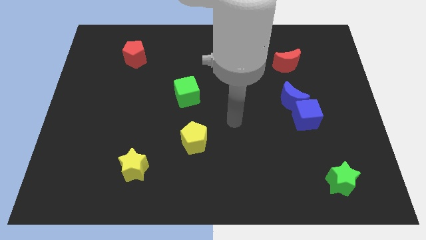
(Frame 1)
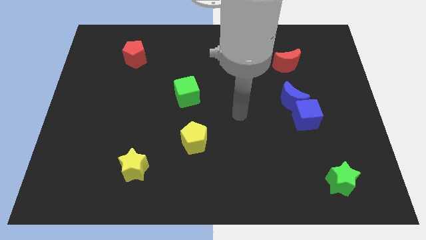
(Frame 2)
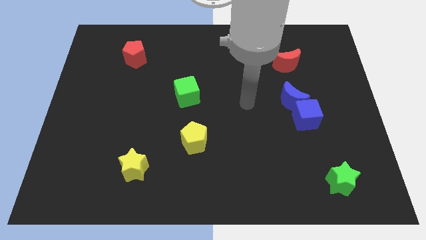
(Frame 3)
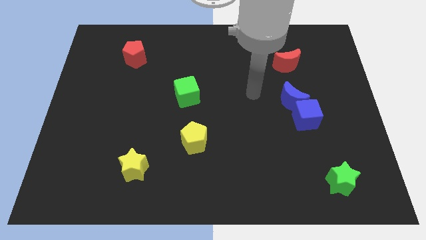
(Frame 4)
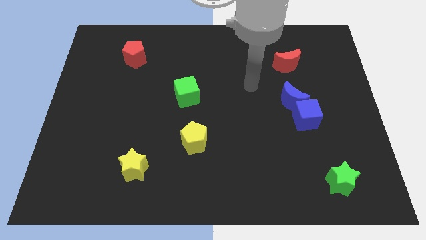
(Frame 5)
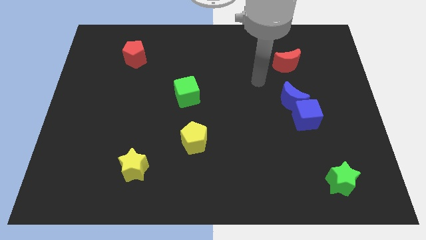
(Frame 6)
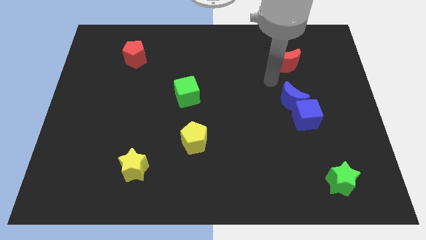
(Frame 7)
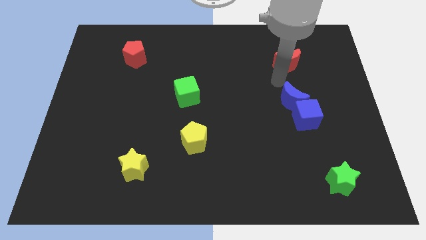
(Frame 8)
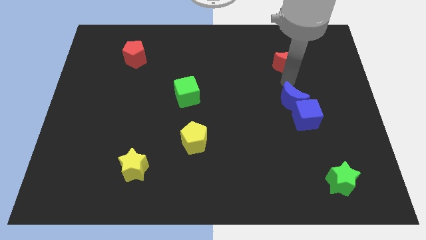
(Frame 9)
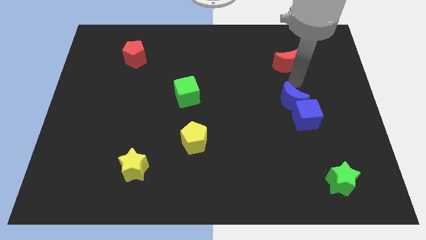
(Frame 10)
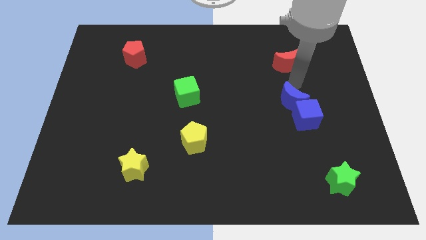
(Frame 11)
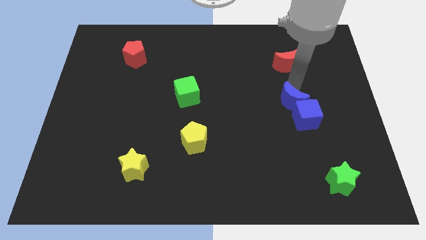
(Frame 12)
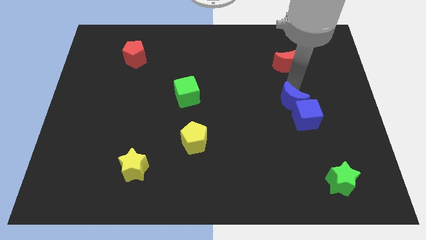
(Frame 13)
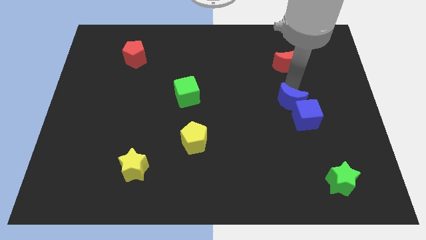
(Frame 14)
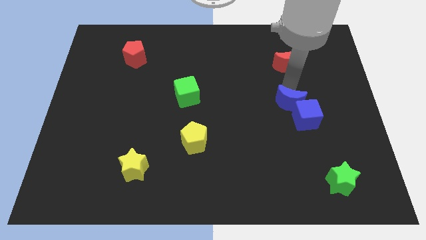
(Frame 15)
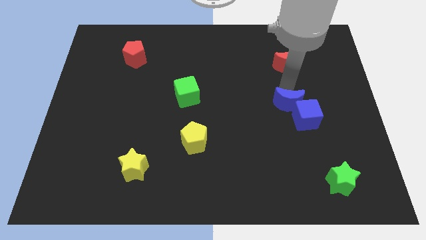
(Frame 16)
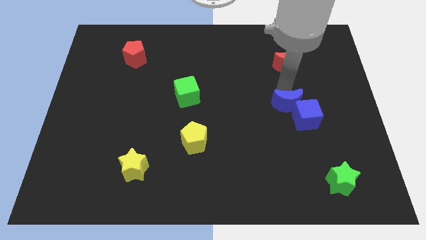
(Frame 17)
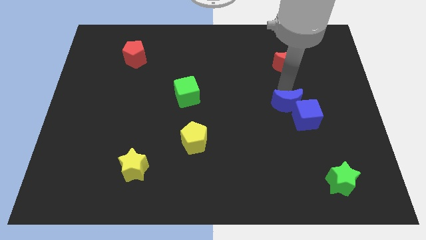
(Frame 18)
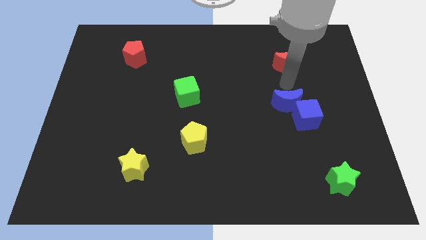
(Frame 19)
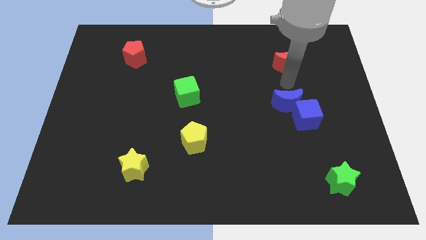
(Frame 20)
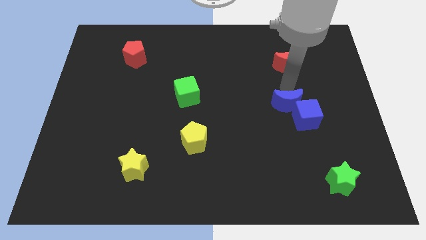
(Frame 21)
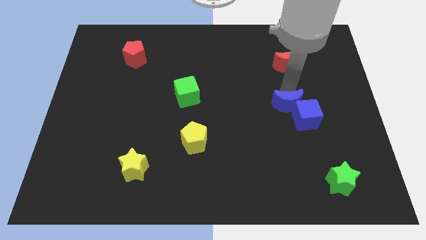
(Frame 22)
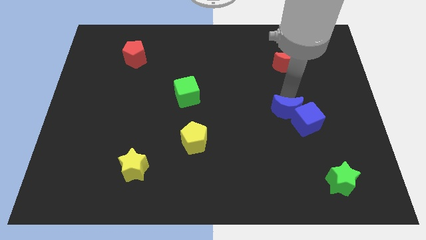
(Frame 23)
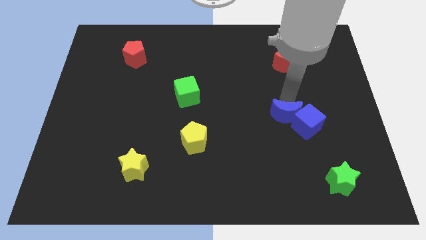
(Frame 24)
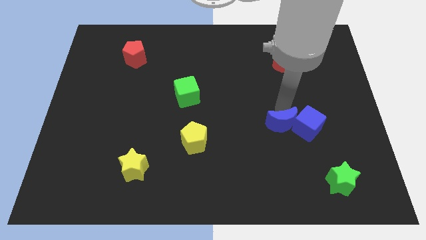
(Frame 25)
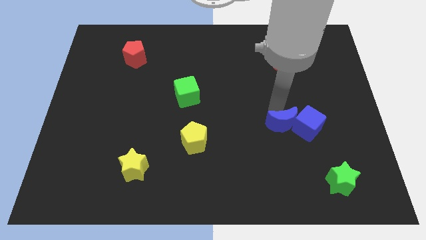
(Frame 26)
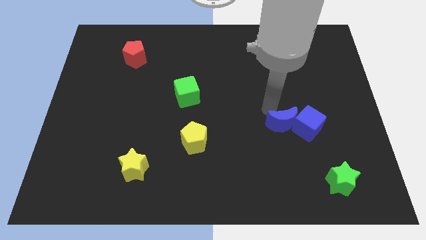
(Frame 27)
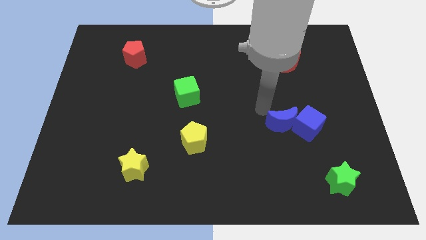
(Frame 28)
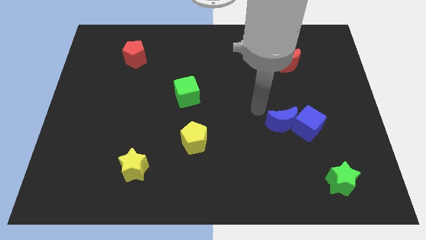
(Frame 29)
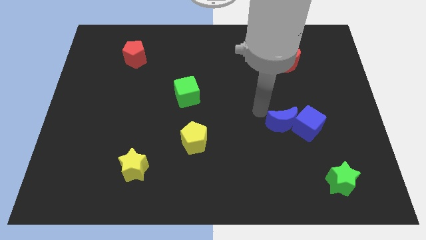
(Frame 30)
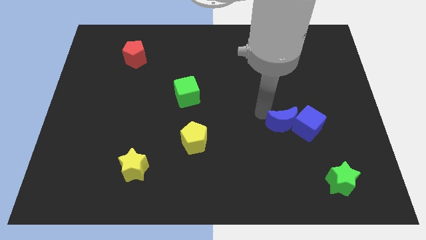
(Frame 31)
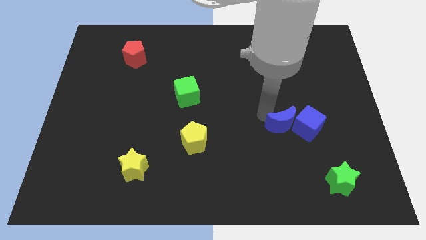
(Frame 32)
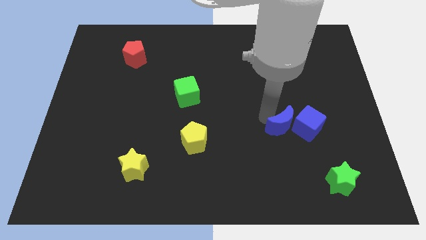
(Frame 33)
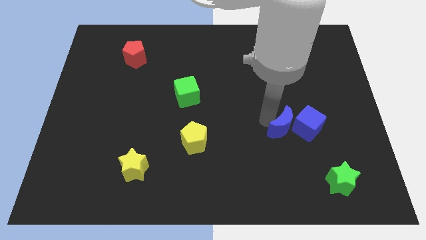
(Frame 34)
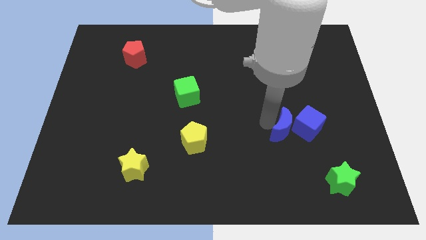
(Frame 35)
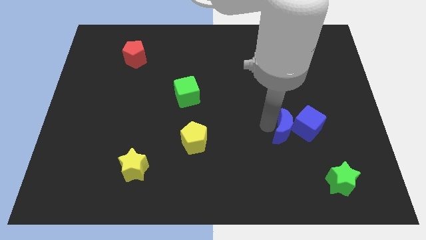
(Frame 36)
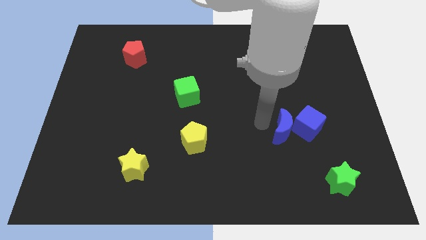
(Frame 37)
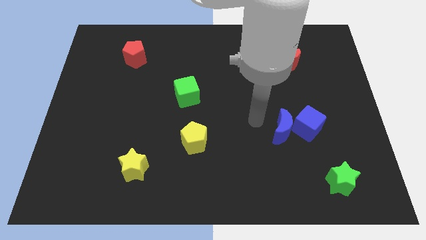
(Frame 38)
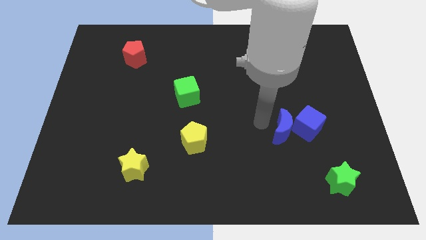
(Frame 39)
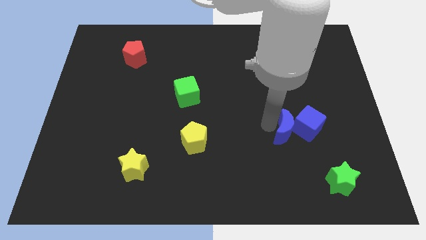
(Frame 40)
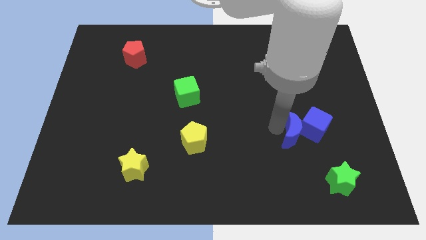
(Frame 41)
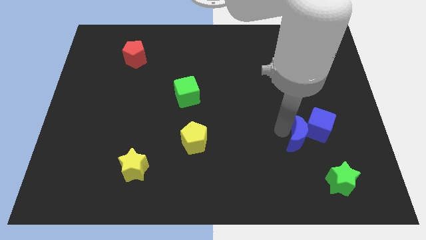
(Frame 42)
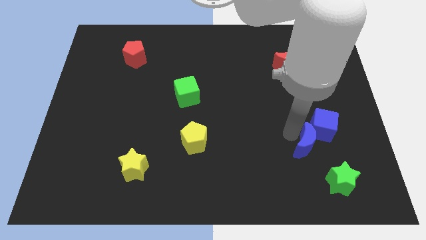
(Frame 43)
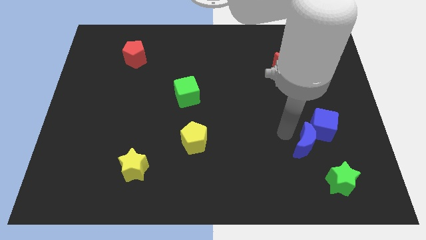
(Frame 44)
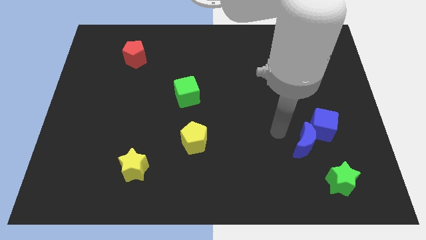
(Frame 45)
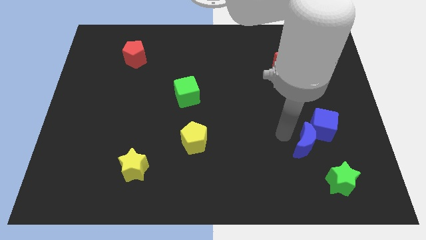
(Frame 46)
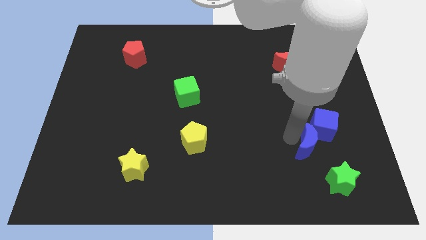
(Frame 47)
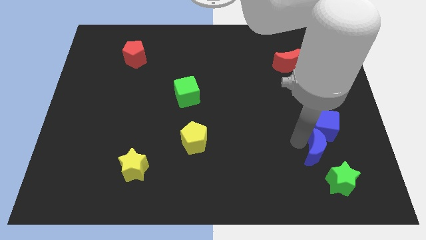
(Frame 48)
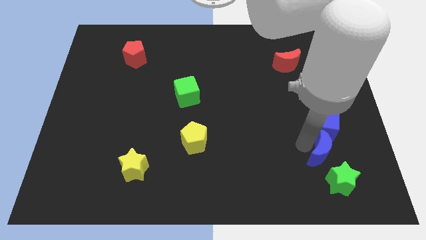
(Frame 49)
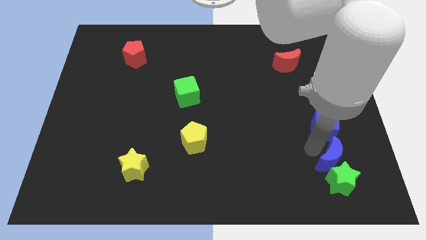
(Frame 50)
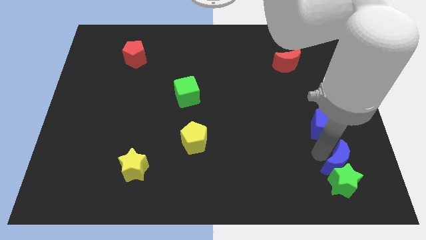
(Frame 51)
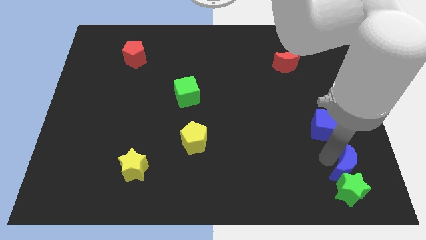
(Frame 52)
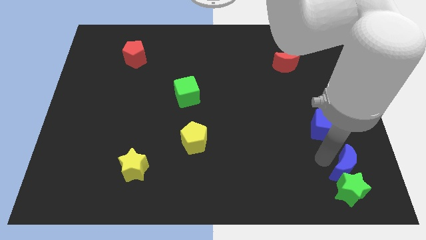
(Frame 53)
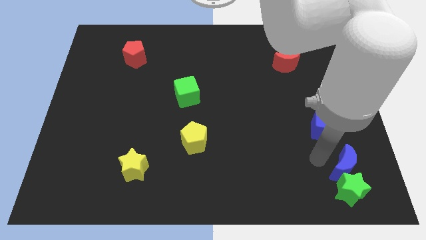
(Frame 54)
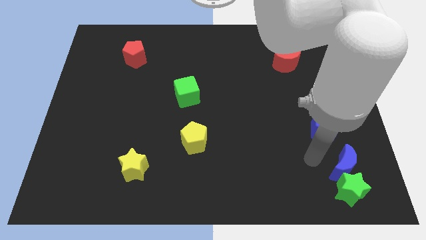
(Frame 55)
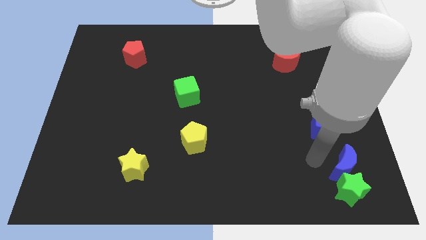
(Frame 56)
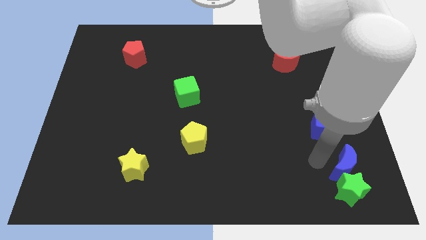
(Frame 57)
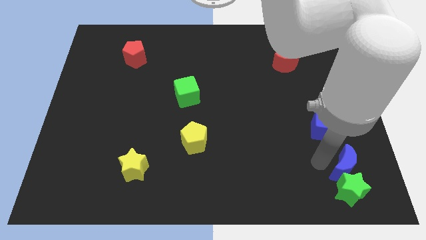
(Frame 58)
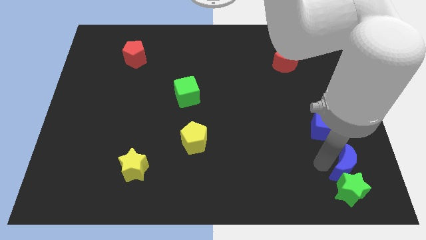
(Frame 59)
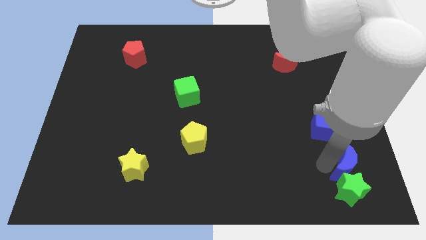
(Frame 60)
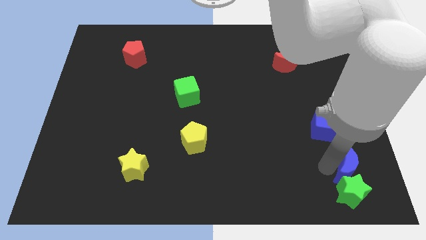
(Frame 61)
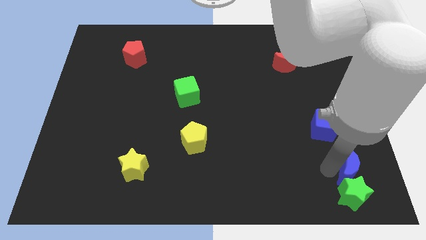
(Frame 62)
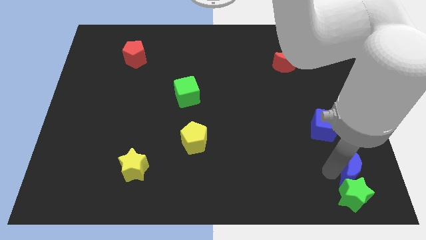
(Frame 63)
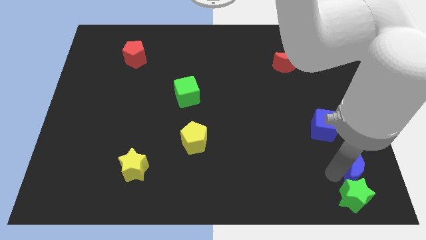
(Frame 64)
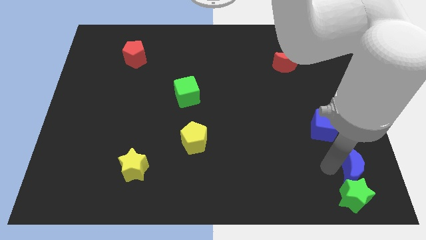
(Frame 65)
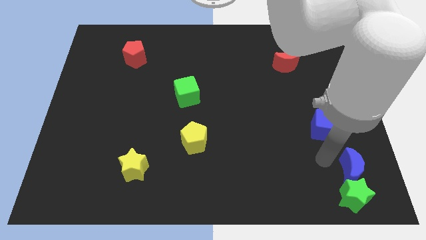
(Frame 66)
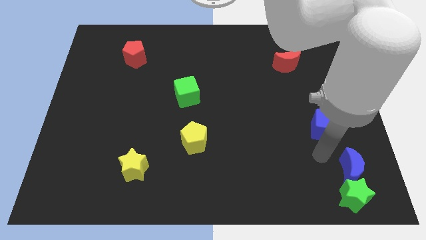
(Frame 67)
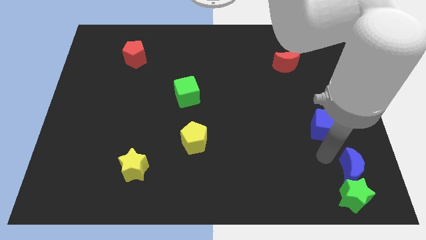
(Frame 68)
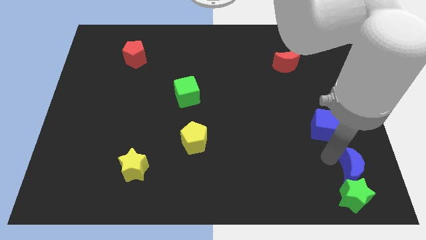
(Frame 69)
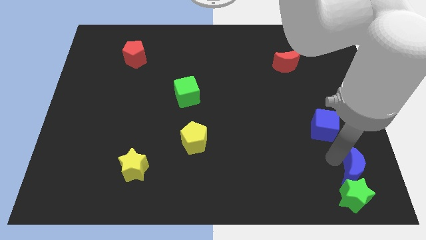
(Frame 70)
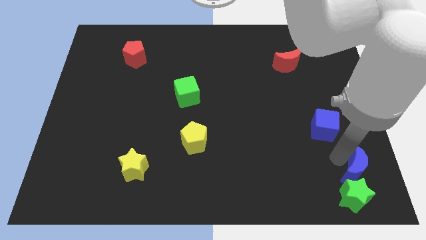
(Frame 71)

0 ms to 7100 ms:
put the blue moon to the bottom right corner
